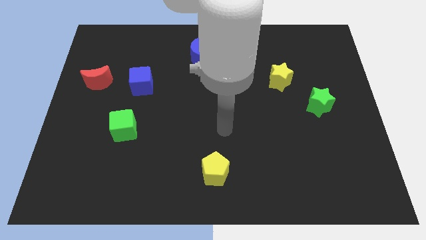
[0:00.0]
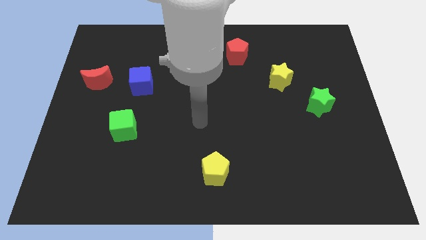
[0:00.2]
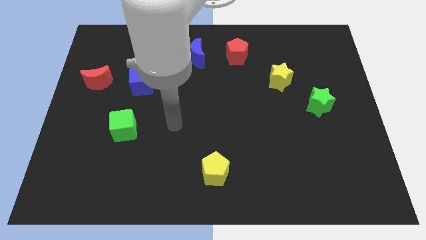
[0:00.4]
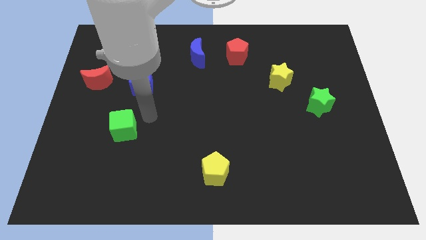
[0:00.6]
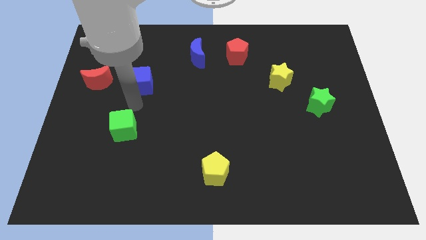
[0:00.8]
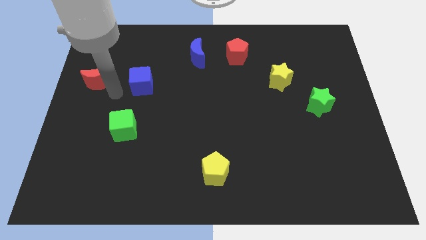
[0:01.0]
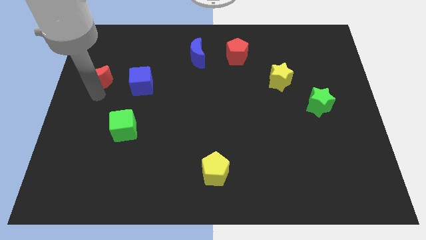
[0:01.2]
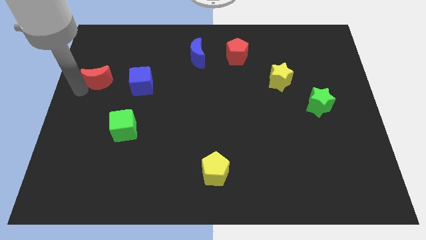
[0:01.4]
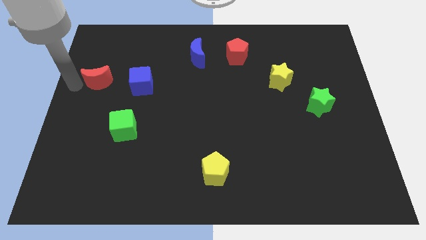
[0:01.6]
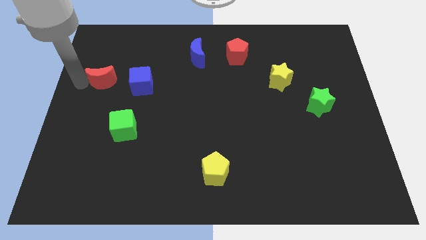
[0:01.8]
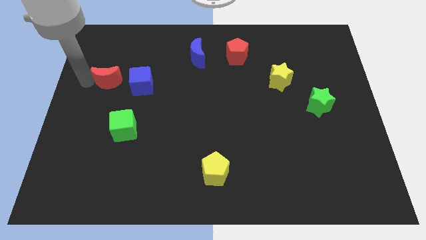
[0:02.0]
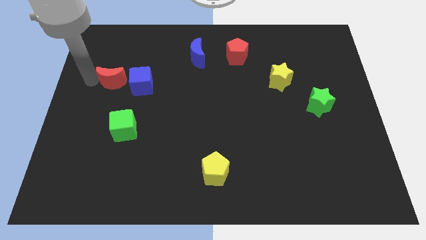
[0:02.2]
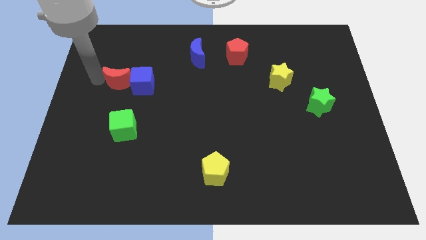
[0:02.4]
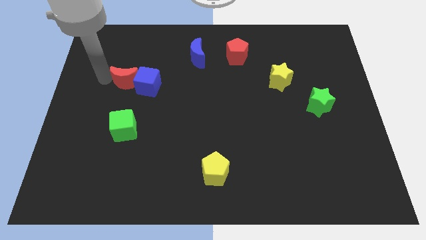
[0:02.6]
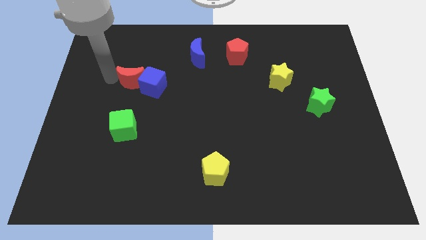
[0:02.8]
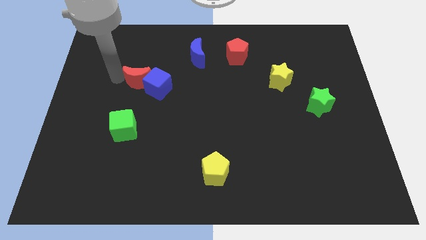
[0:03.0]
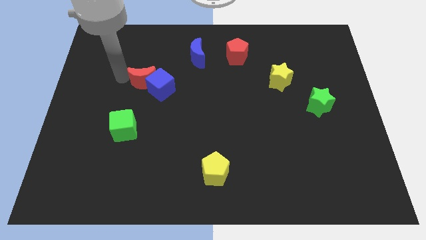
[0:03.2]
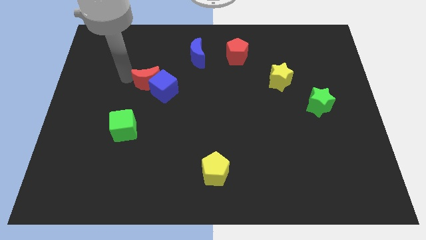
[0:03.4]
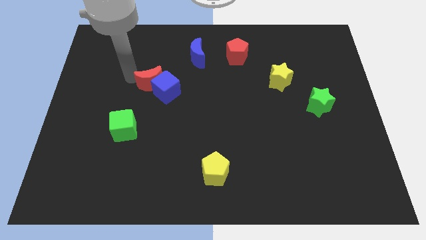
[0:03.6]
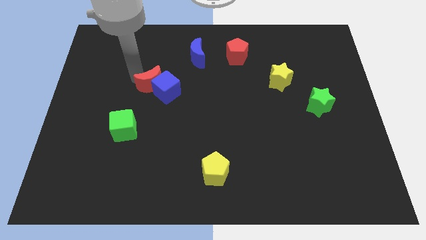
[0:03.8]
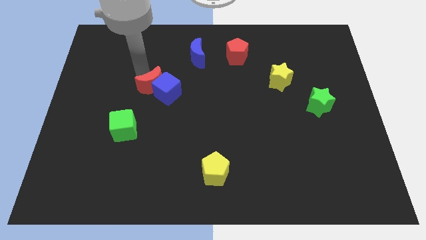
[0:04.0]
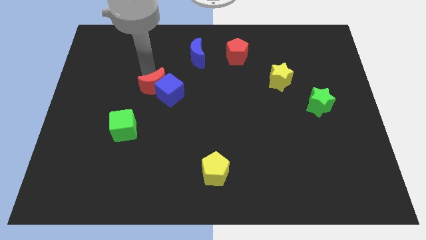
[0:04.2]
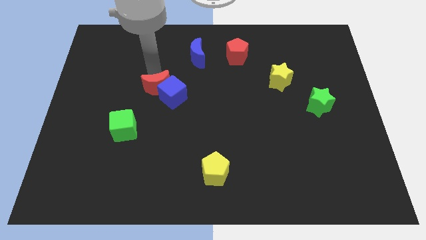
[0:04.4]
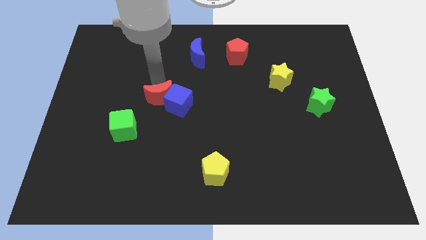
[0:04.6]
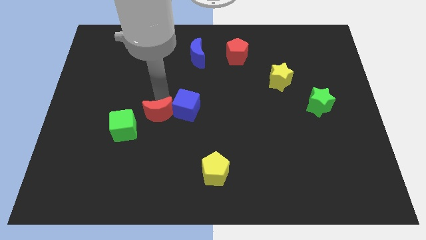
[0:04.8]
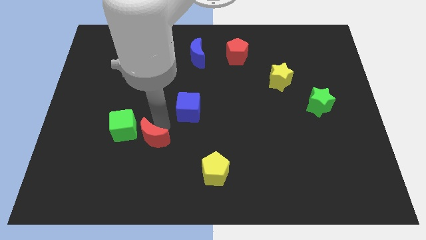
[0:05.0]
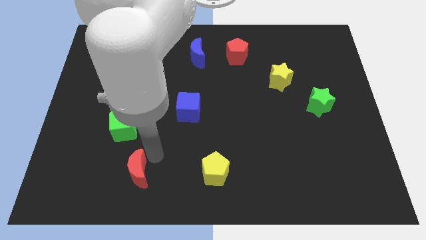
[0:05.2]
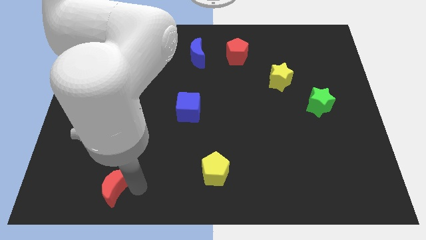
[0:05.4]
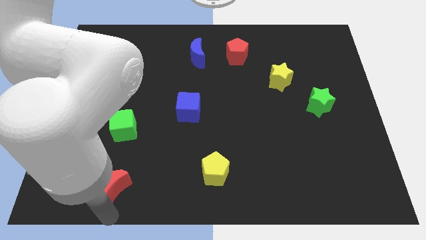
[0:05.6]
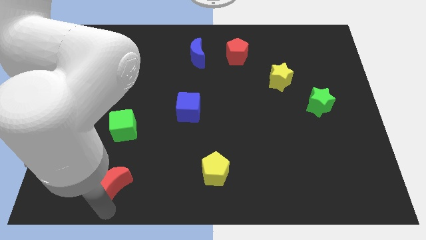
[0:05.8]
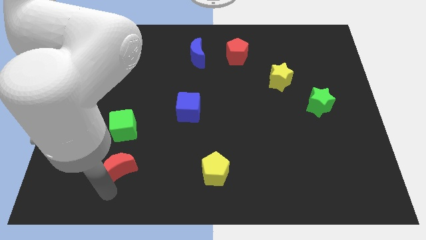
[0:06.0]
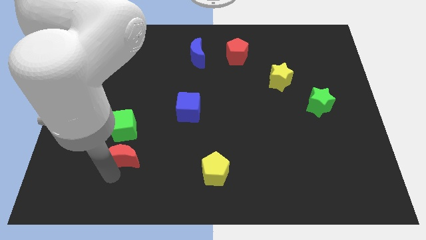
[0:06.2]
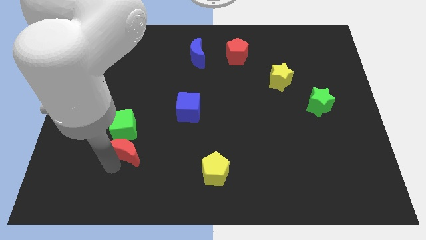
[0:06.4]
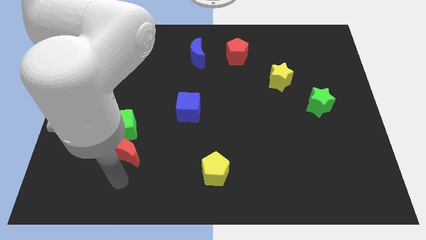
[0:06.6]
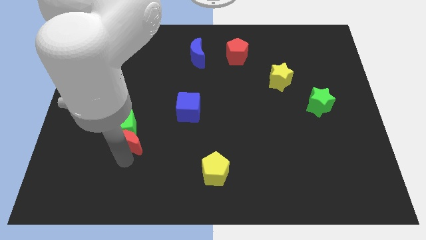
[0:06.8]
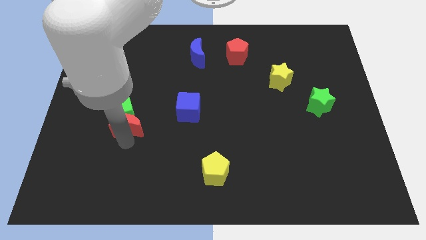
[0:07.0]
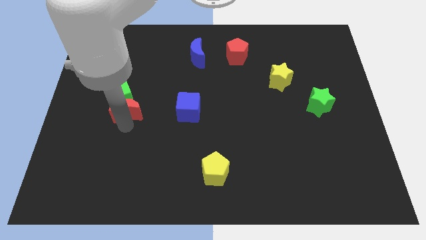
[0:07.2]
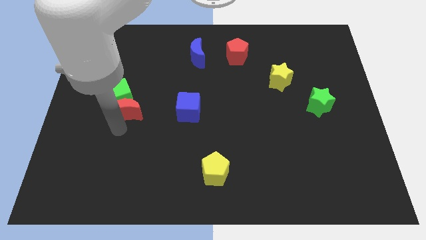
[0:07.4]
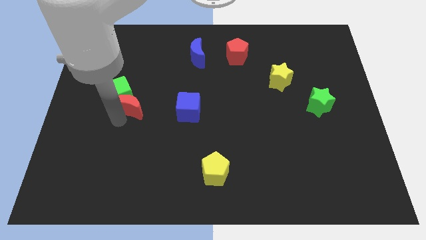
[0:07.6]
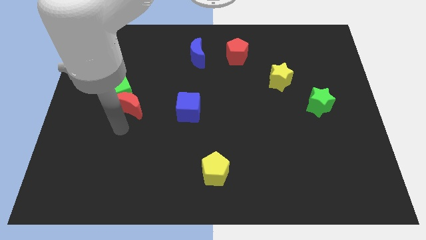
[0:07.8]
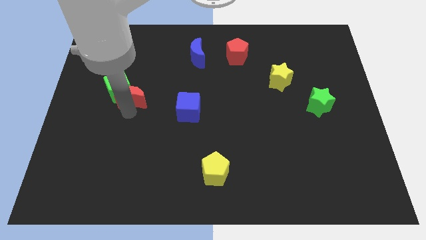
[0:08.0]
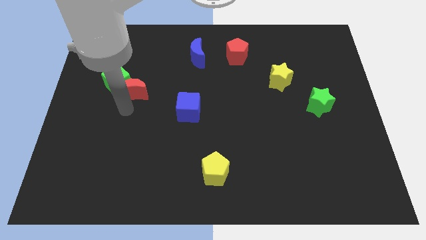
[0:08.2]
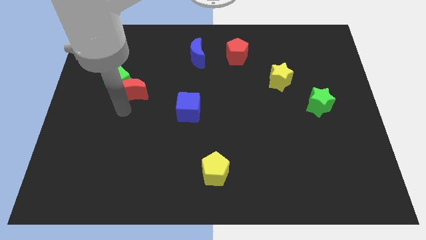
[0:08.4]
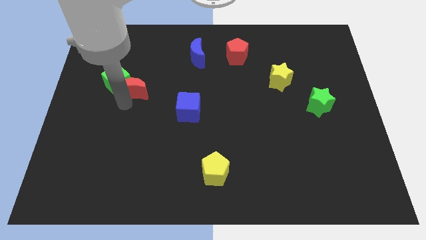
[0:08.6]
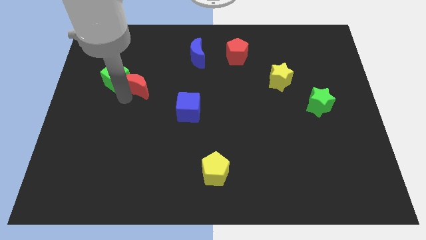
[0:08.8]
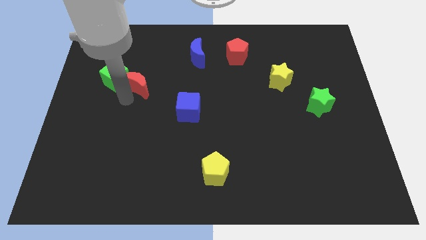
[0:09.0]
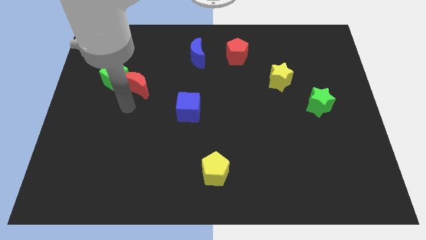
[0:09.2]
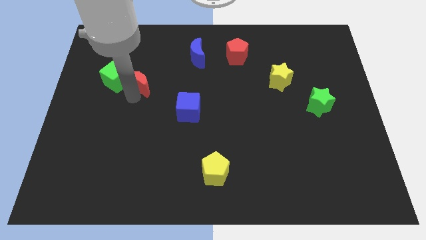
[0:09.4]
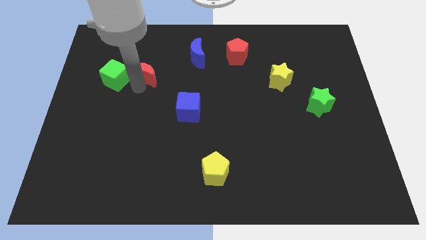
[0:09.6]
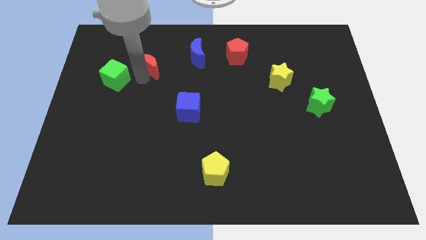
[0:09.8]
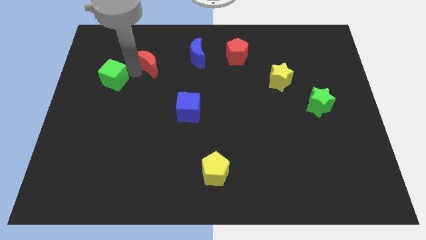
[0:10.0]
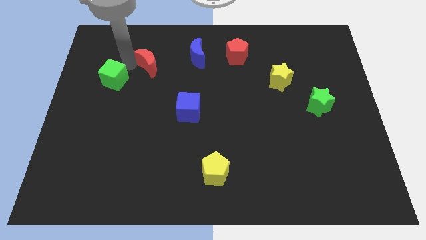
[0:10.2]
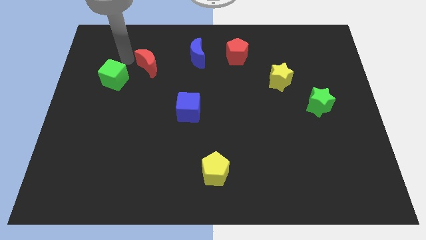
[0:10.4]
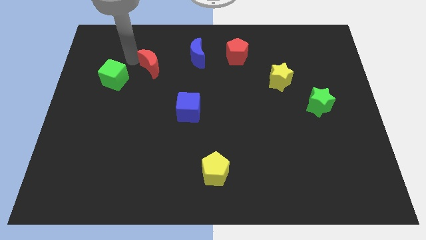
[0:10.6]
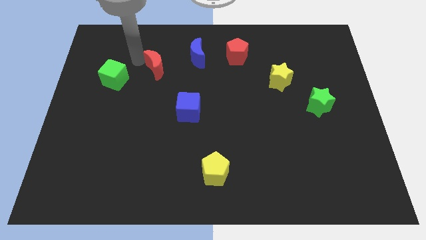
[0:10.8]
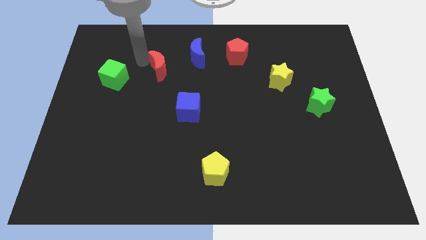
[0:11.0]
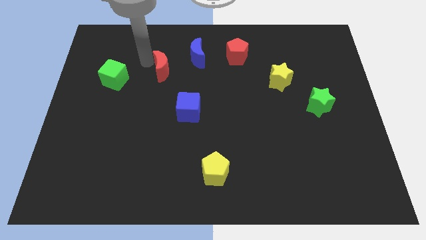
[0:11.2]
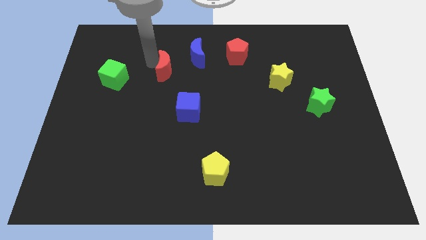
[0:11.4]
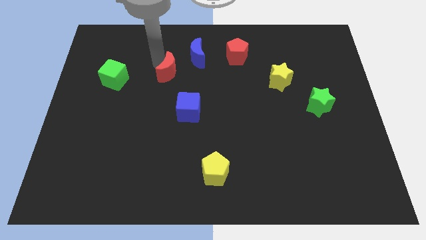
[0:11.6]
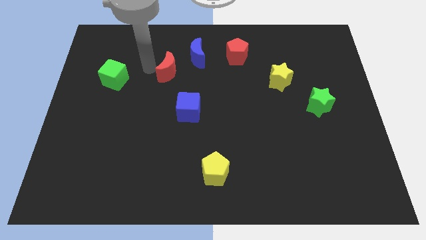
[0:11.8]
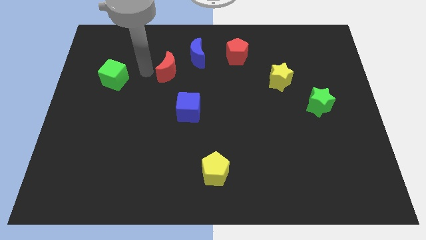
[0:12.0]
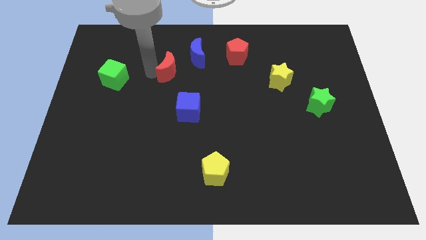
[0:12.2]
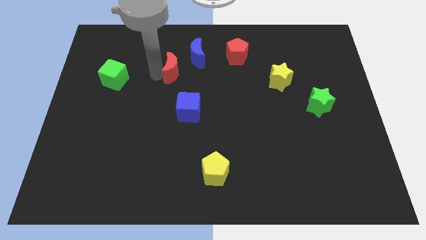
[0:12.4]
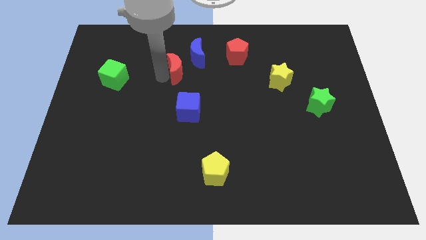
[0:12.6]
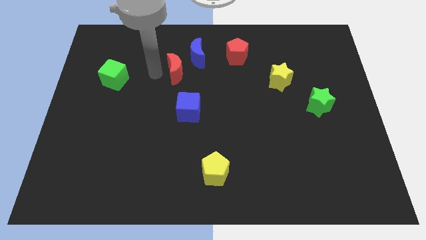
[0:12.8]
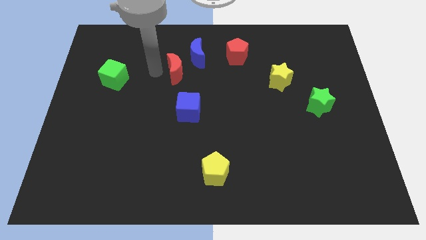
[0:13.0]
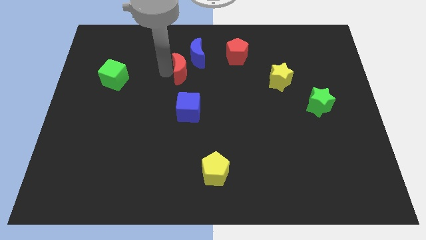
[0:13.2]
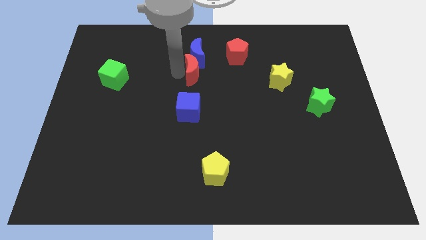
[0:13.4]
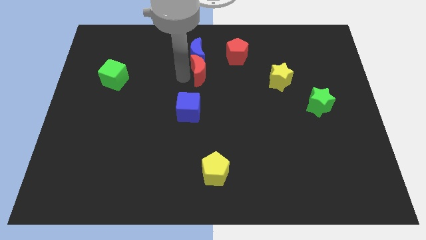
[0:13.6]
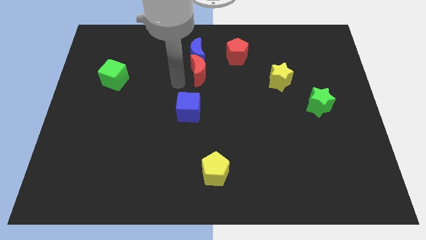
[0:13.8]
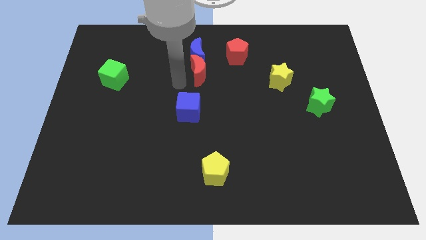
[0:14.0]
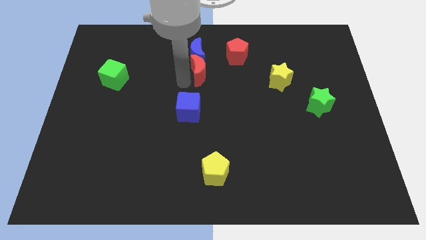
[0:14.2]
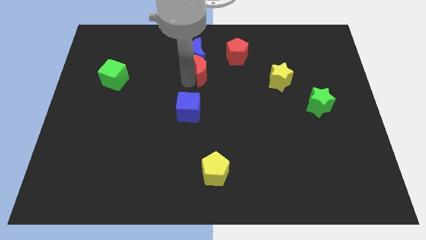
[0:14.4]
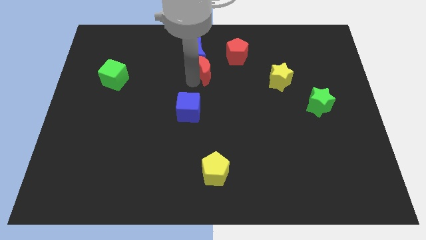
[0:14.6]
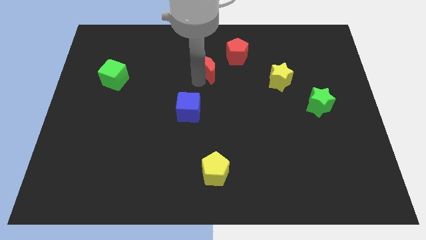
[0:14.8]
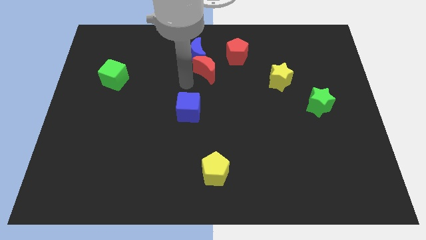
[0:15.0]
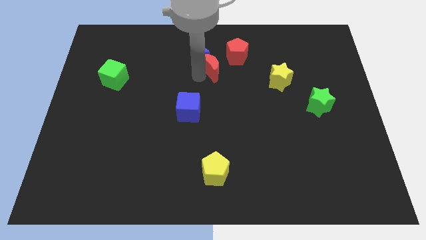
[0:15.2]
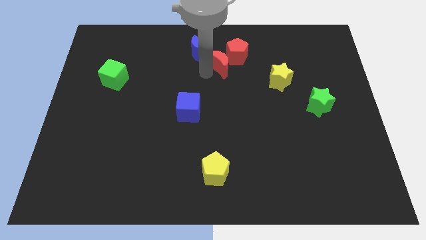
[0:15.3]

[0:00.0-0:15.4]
push the red moon to the red pentagon

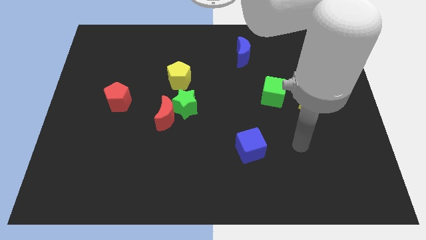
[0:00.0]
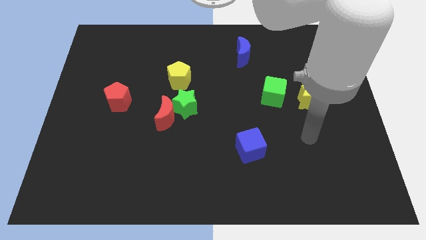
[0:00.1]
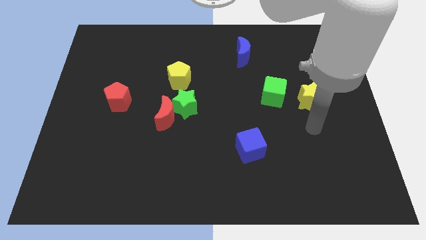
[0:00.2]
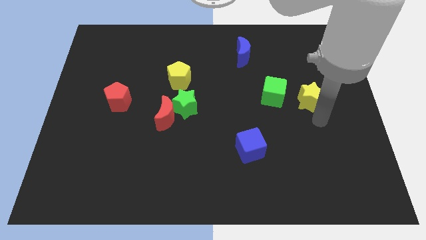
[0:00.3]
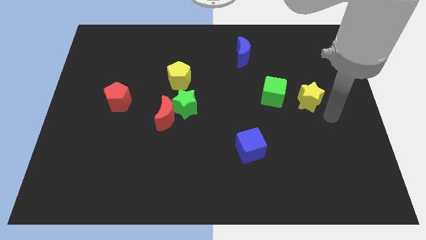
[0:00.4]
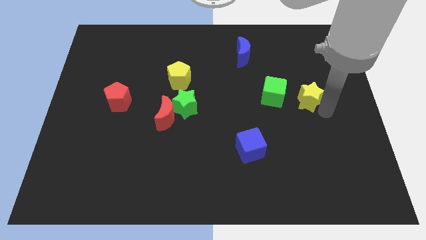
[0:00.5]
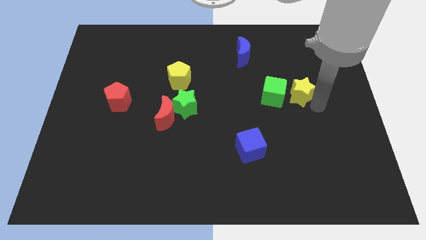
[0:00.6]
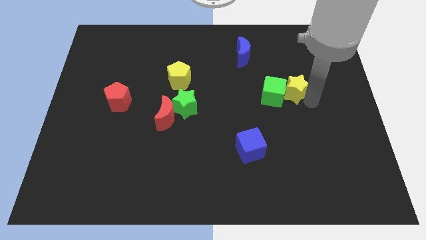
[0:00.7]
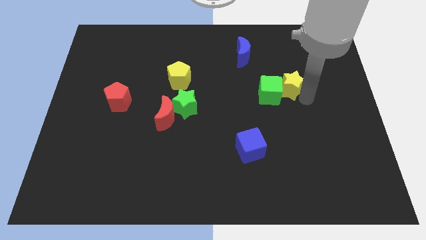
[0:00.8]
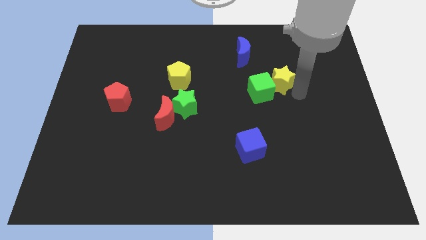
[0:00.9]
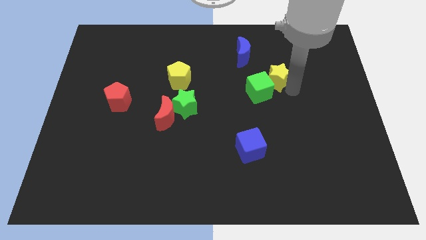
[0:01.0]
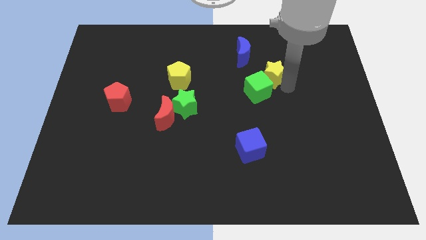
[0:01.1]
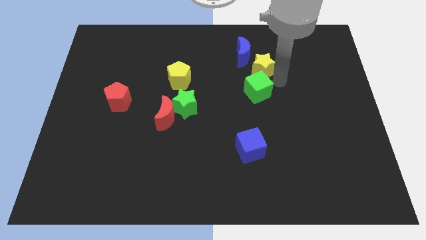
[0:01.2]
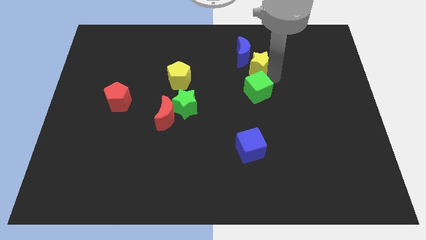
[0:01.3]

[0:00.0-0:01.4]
push the yellow star close to the blue moon
